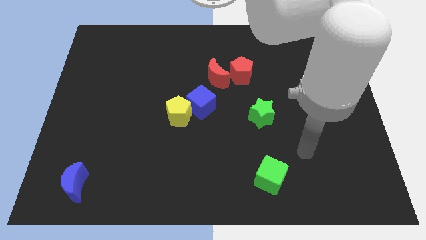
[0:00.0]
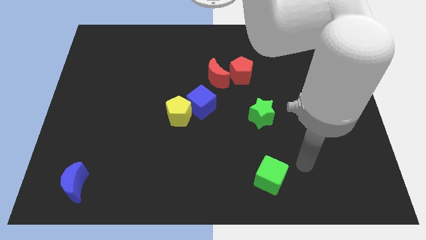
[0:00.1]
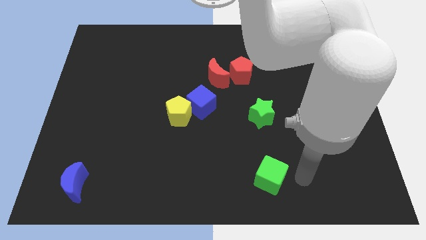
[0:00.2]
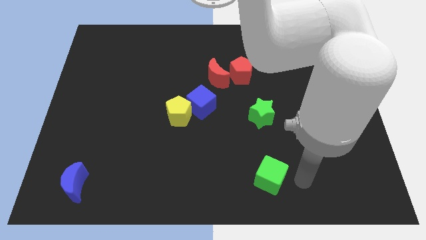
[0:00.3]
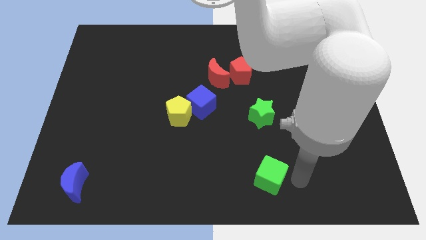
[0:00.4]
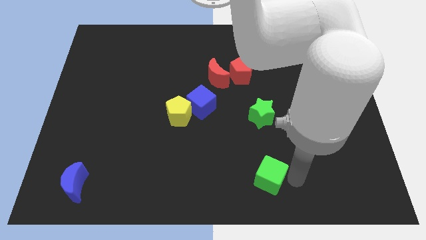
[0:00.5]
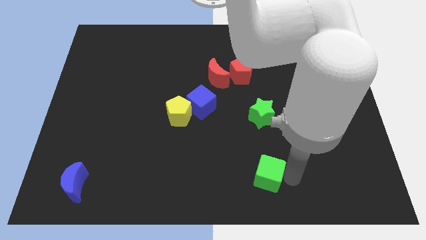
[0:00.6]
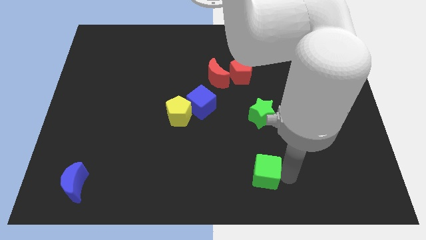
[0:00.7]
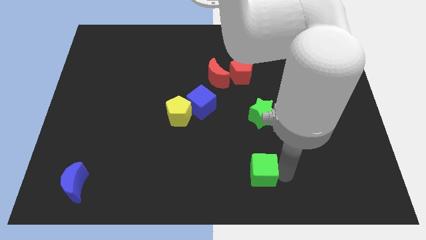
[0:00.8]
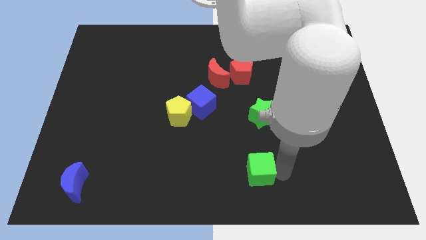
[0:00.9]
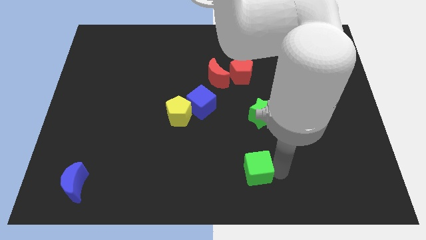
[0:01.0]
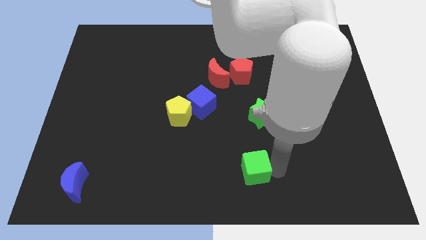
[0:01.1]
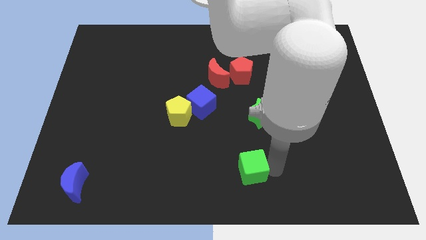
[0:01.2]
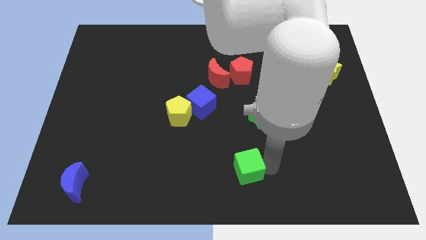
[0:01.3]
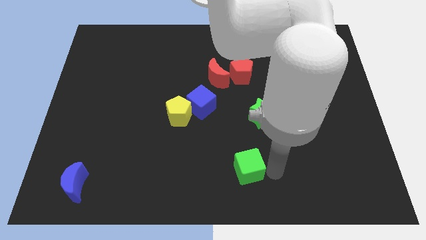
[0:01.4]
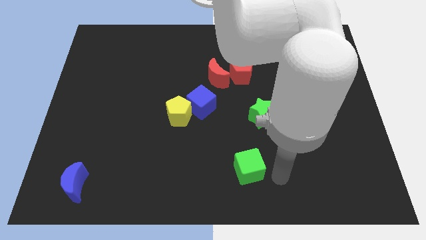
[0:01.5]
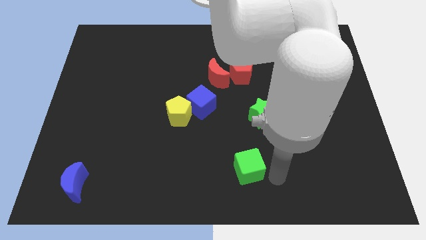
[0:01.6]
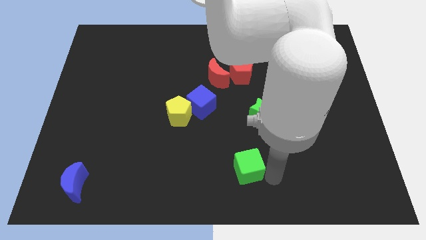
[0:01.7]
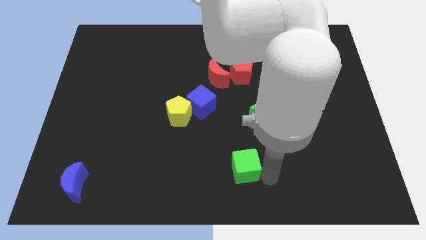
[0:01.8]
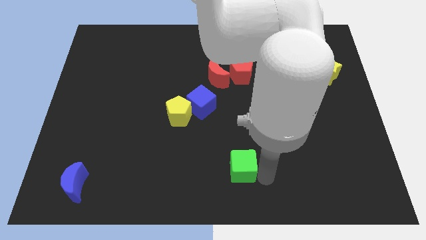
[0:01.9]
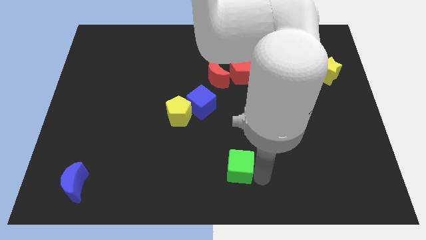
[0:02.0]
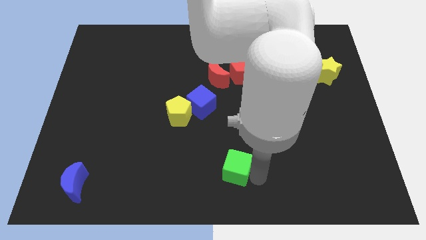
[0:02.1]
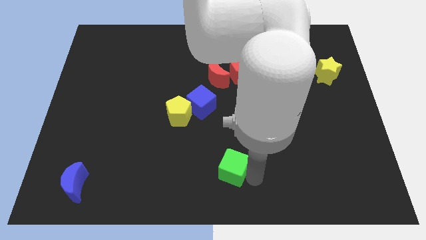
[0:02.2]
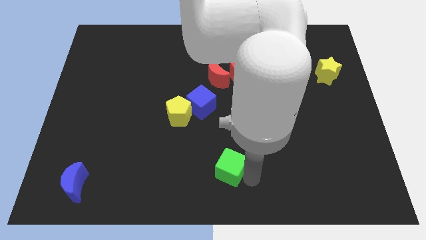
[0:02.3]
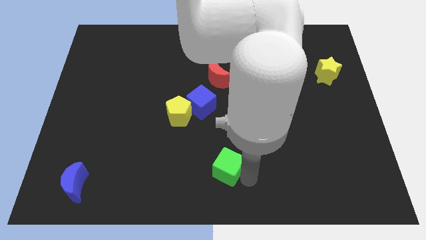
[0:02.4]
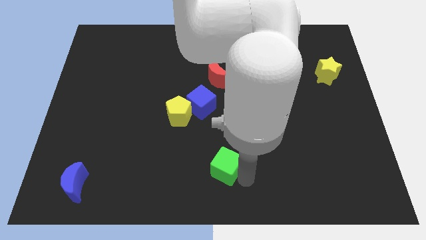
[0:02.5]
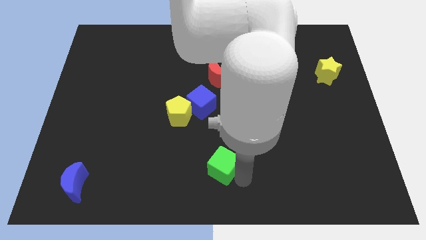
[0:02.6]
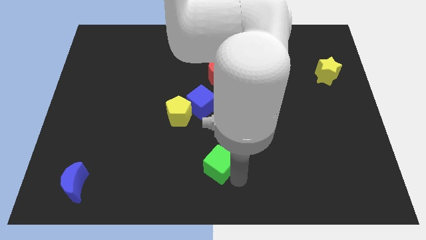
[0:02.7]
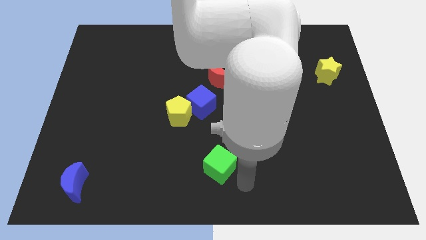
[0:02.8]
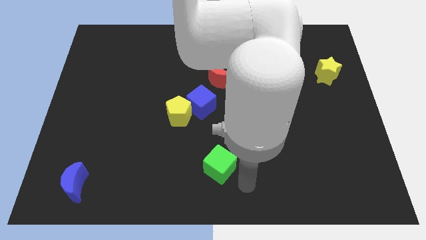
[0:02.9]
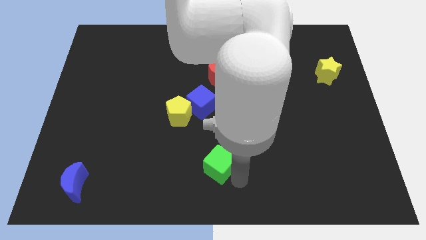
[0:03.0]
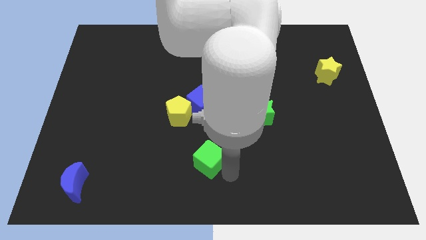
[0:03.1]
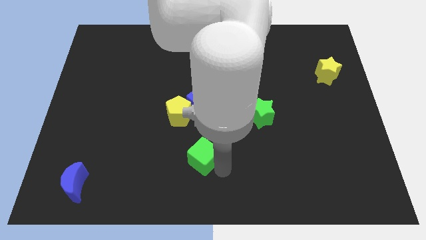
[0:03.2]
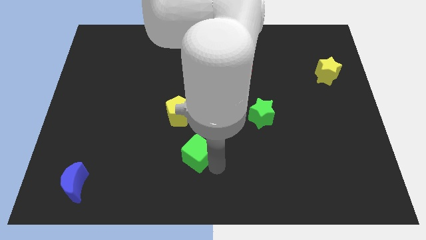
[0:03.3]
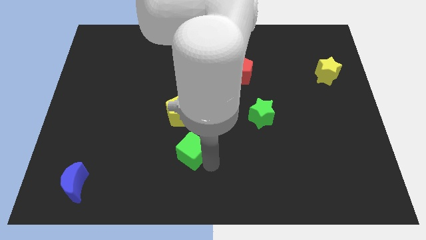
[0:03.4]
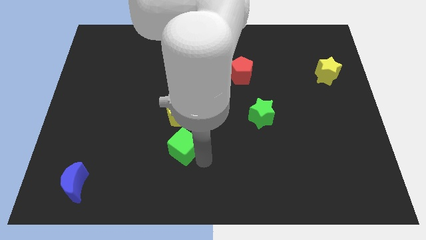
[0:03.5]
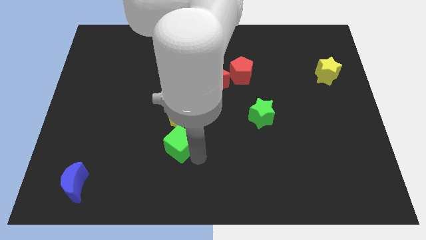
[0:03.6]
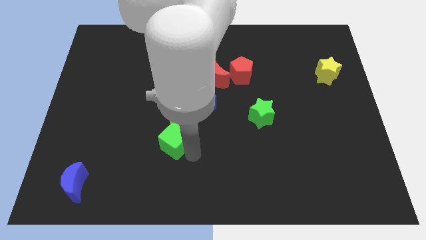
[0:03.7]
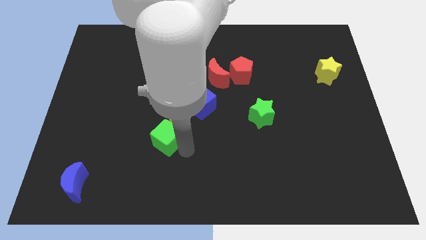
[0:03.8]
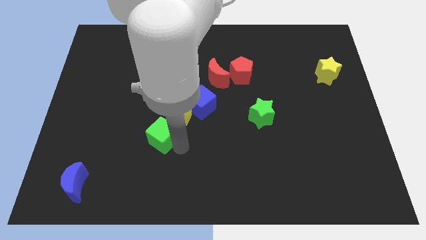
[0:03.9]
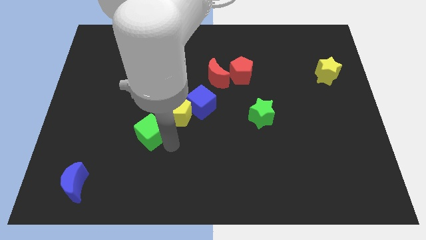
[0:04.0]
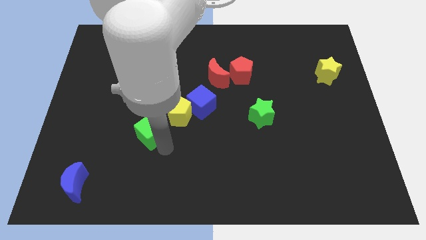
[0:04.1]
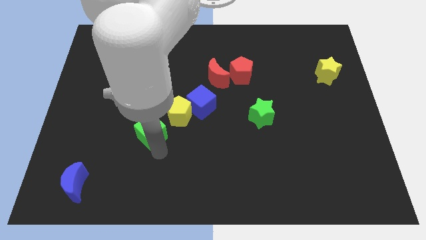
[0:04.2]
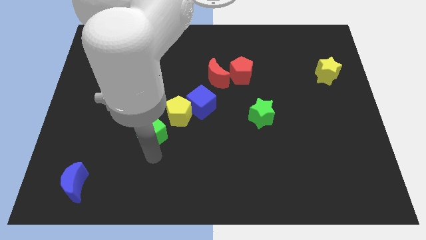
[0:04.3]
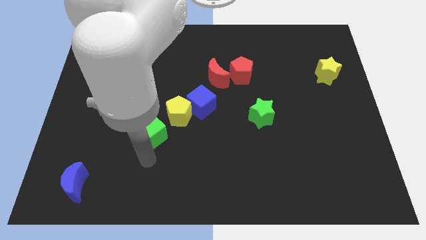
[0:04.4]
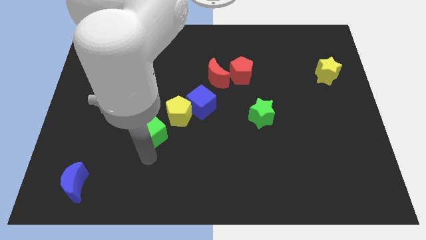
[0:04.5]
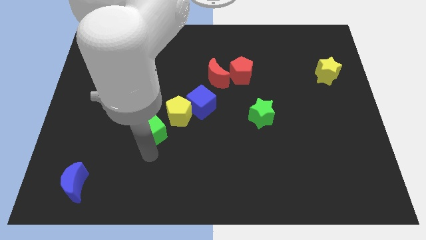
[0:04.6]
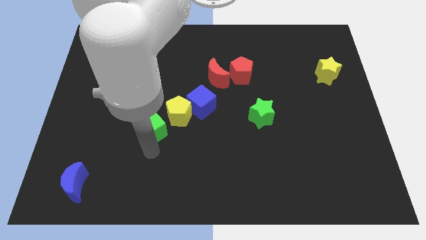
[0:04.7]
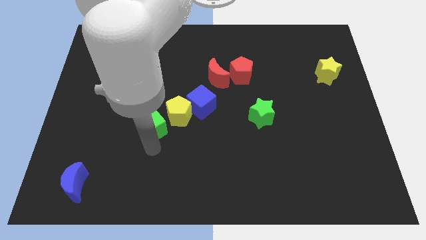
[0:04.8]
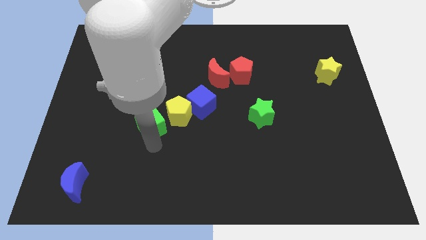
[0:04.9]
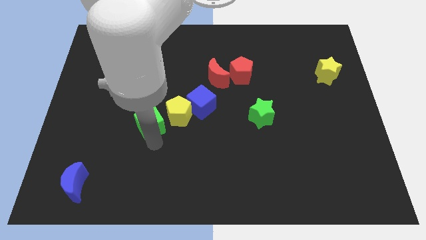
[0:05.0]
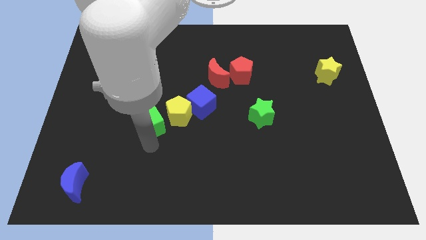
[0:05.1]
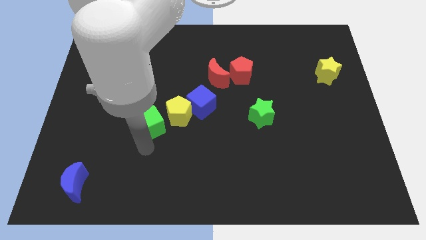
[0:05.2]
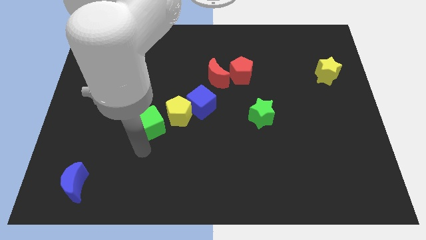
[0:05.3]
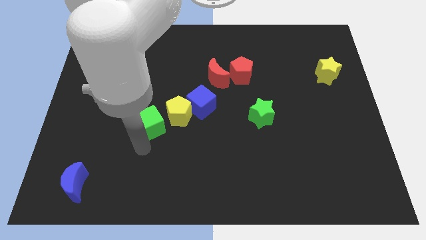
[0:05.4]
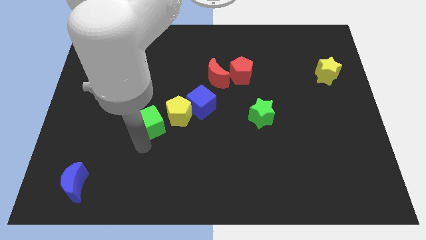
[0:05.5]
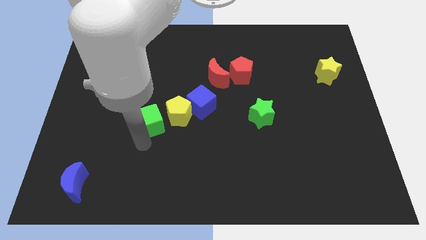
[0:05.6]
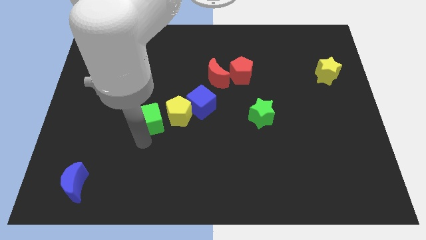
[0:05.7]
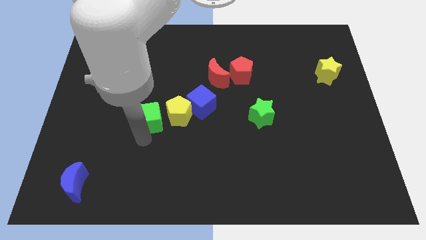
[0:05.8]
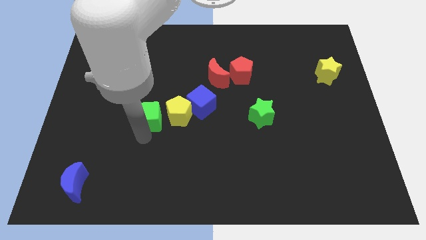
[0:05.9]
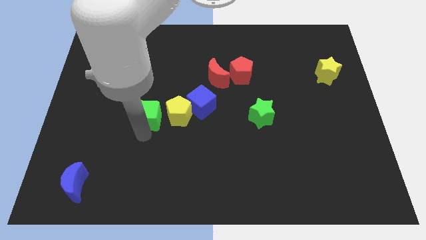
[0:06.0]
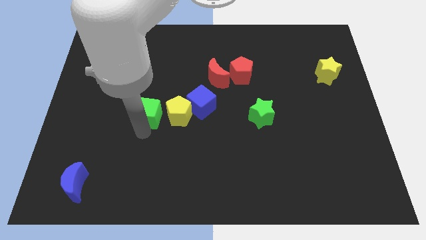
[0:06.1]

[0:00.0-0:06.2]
move the green cube to the top left of the yellow pentagon

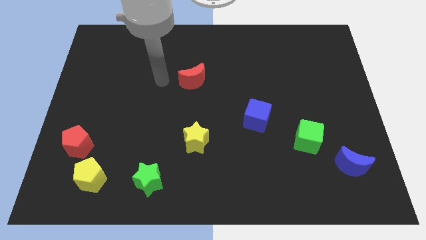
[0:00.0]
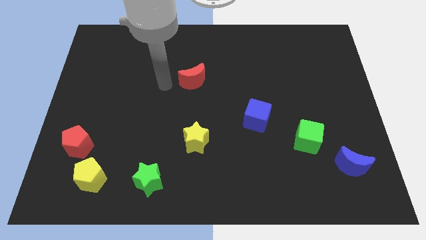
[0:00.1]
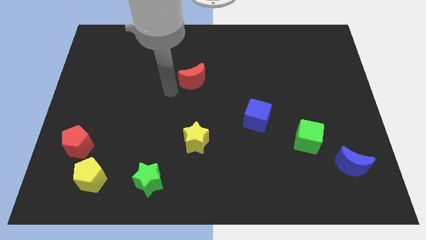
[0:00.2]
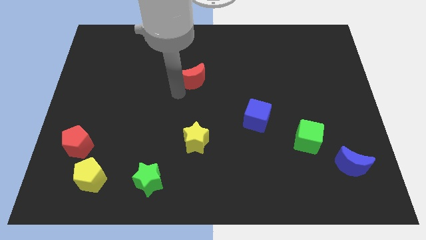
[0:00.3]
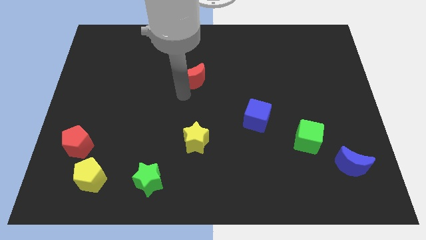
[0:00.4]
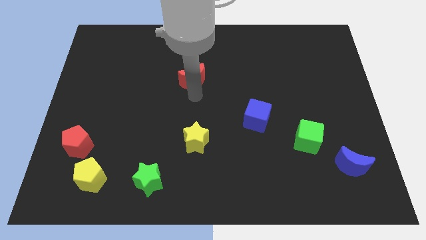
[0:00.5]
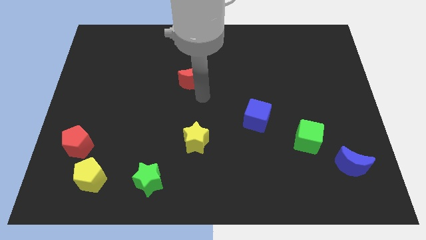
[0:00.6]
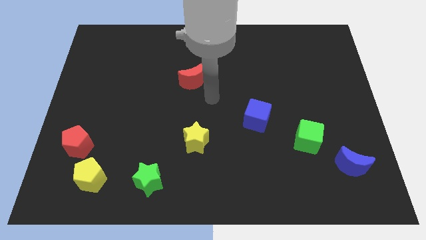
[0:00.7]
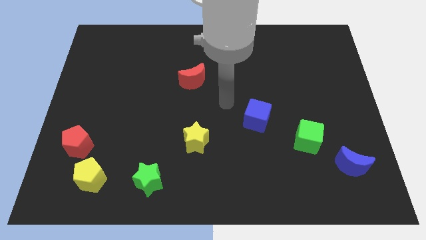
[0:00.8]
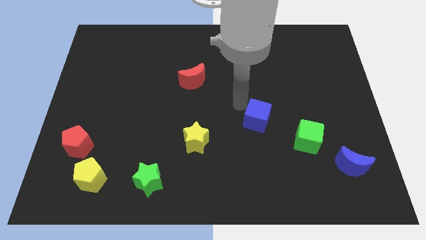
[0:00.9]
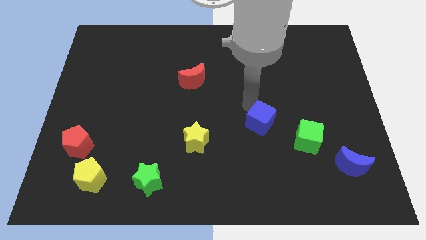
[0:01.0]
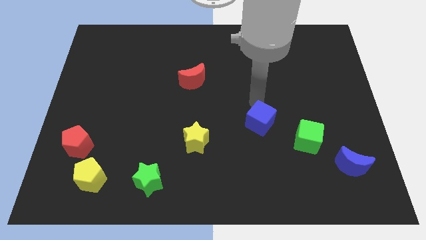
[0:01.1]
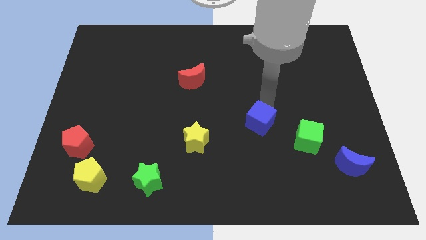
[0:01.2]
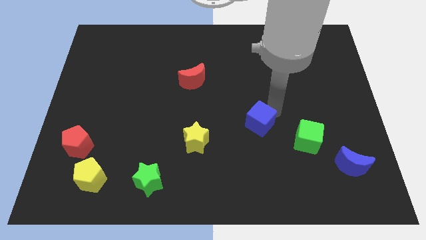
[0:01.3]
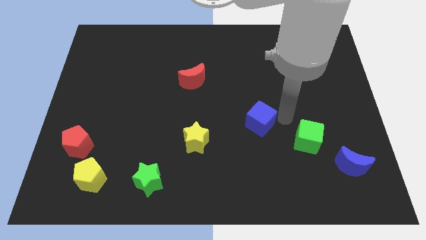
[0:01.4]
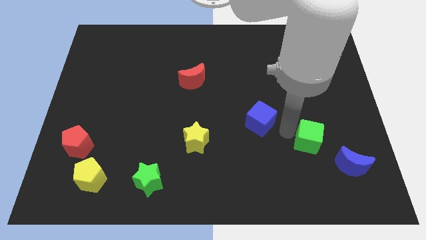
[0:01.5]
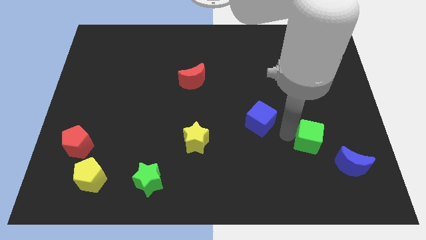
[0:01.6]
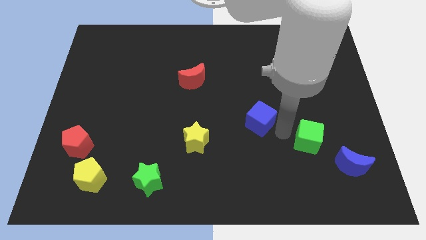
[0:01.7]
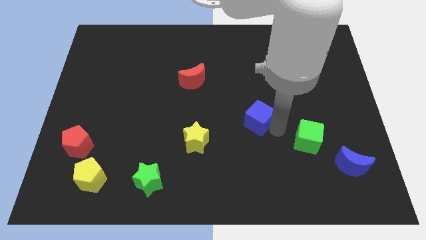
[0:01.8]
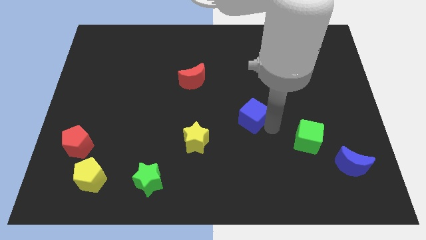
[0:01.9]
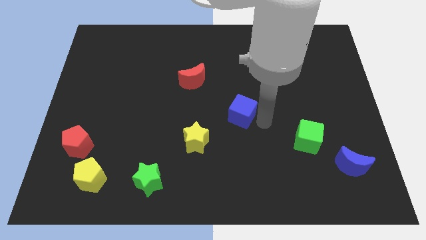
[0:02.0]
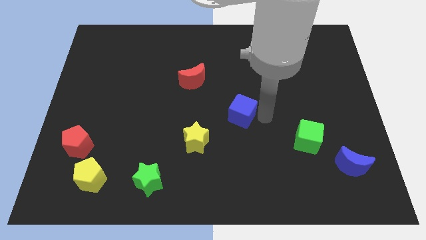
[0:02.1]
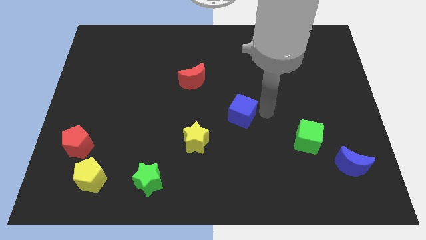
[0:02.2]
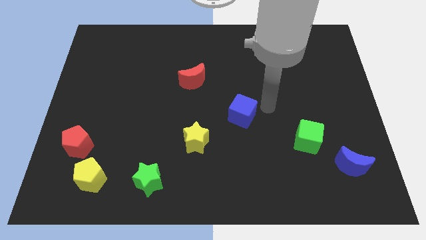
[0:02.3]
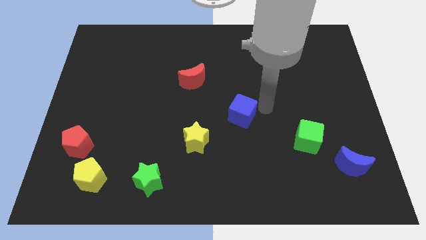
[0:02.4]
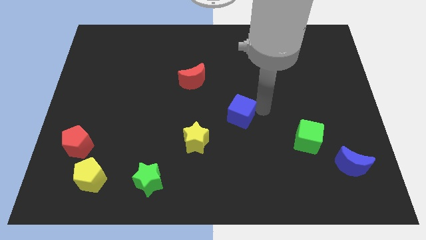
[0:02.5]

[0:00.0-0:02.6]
put the blue cube to the top right side of the yellow star
